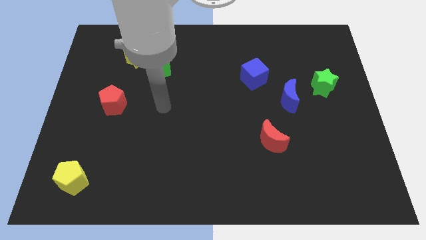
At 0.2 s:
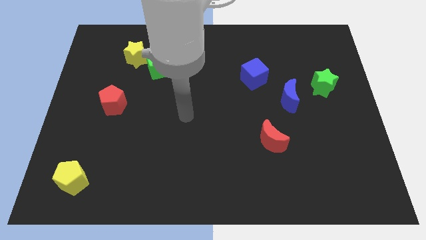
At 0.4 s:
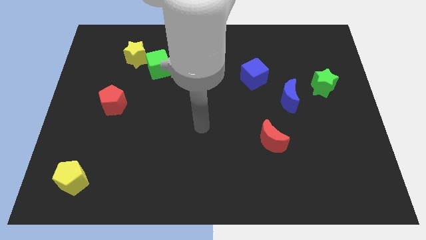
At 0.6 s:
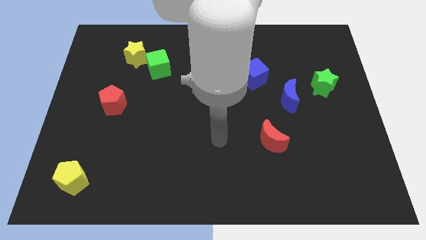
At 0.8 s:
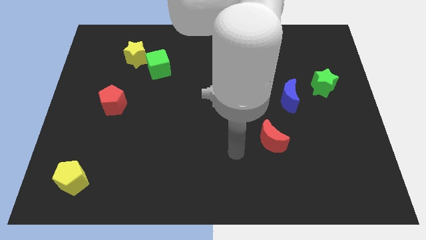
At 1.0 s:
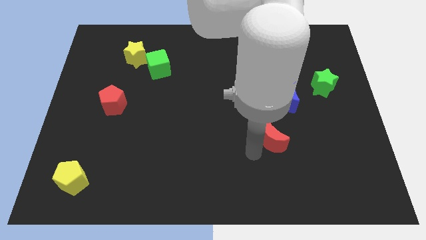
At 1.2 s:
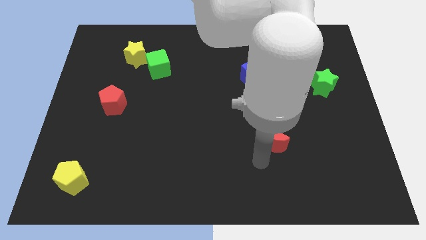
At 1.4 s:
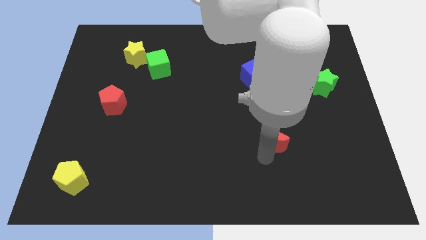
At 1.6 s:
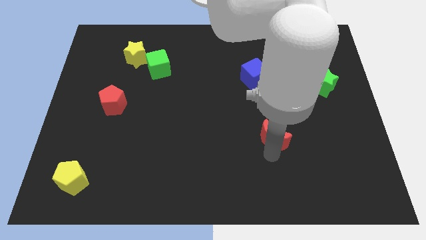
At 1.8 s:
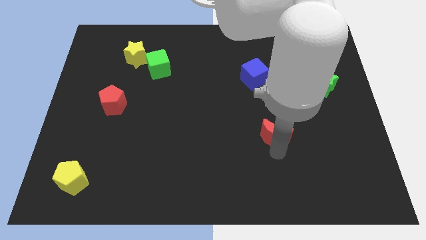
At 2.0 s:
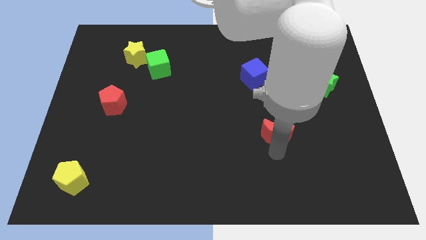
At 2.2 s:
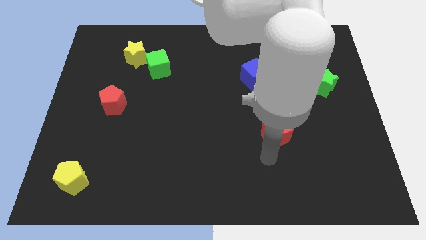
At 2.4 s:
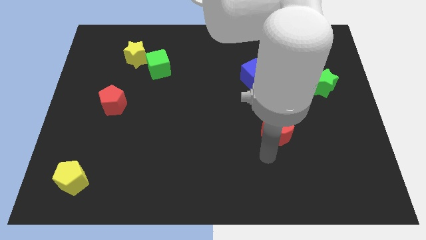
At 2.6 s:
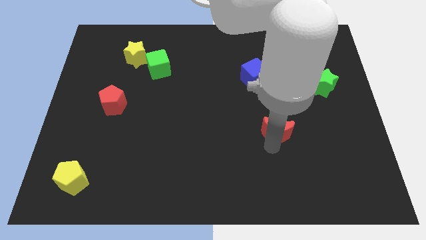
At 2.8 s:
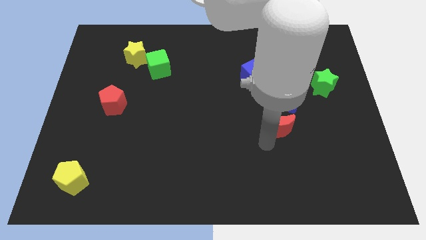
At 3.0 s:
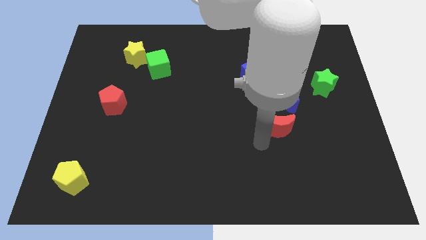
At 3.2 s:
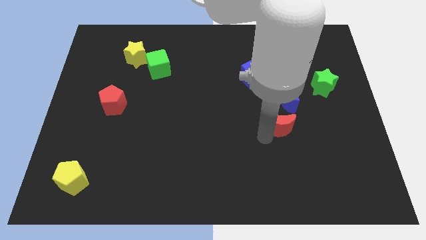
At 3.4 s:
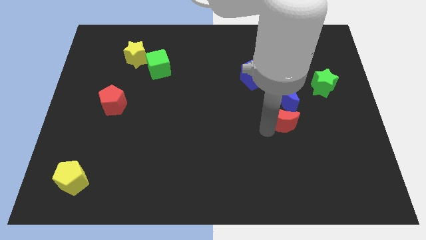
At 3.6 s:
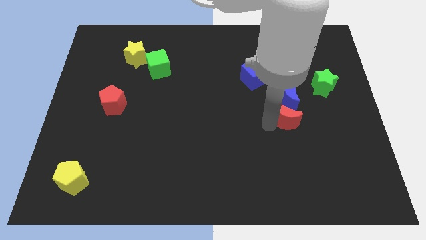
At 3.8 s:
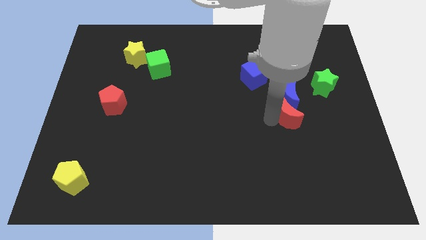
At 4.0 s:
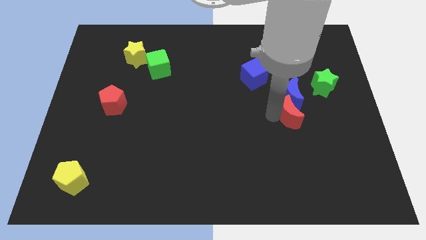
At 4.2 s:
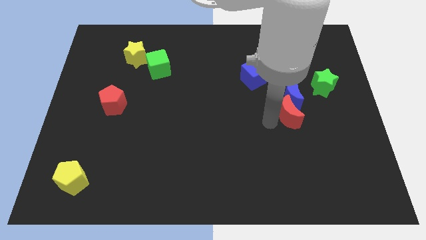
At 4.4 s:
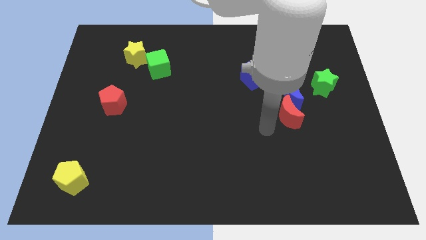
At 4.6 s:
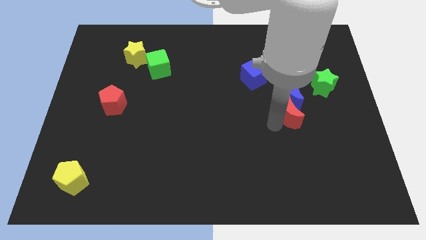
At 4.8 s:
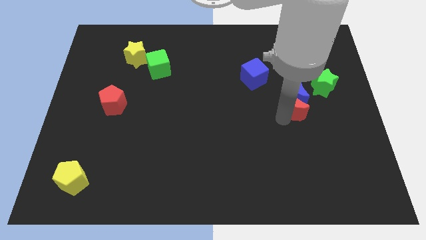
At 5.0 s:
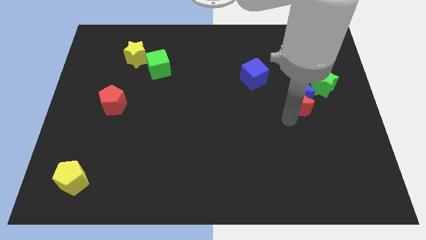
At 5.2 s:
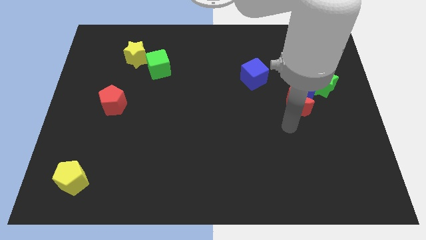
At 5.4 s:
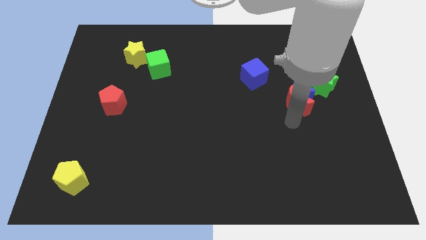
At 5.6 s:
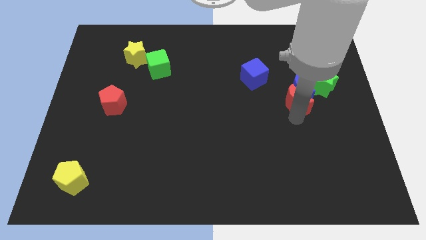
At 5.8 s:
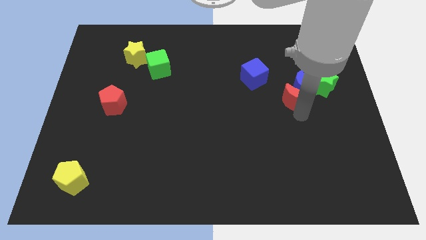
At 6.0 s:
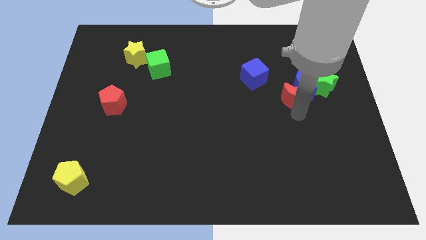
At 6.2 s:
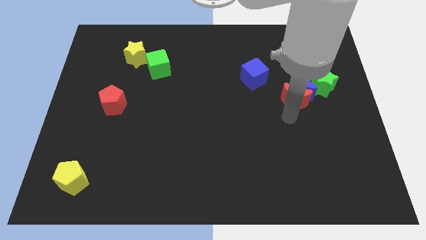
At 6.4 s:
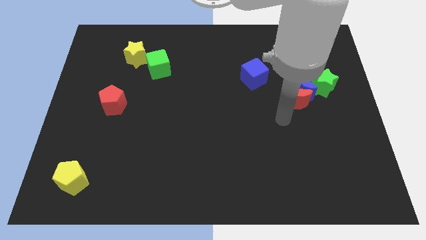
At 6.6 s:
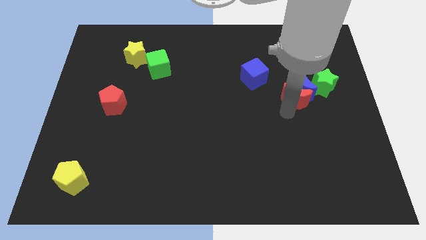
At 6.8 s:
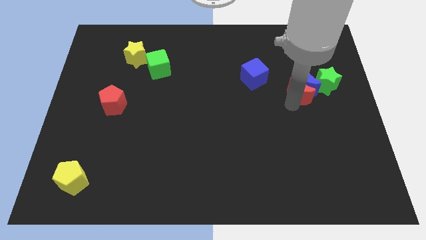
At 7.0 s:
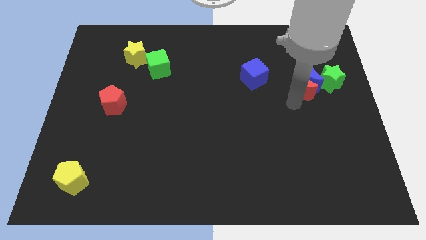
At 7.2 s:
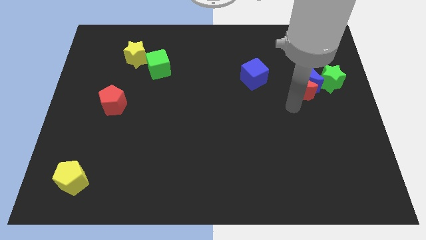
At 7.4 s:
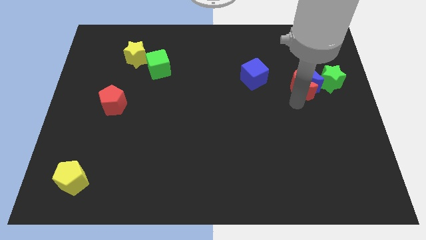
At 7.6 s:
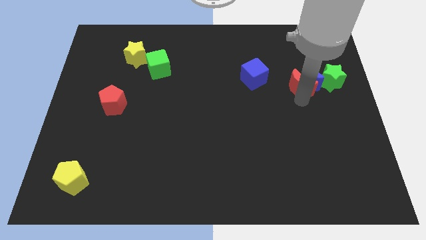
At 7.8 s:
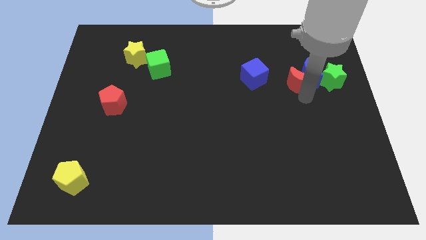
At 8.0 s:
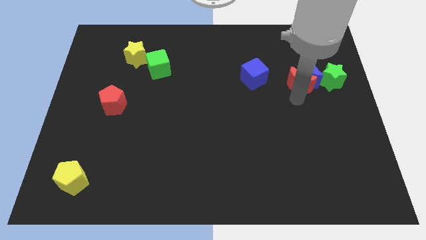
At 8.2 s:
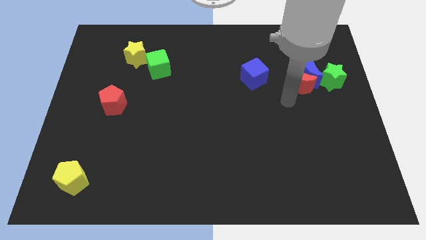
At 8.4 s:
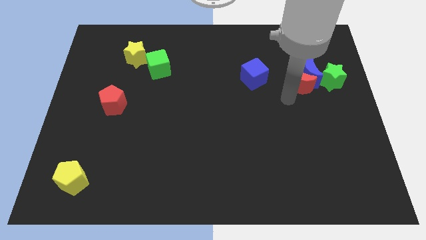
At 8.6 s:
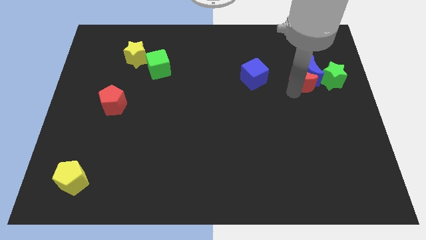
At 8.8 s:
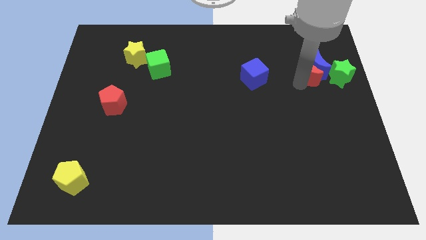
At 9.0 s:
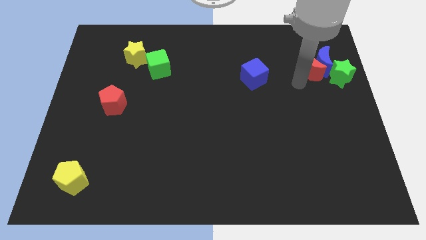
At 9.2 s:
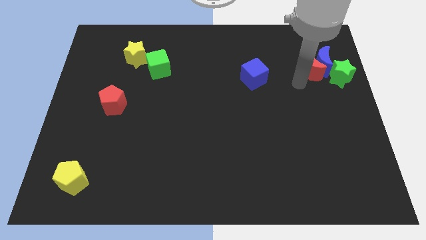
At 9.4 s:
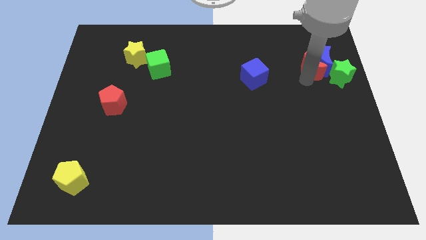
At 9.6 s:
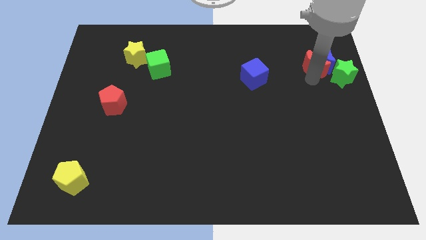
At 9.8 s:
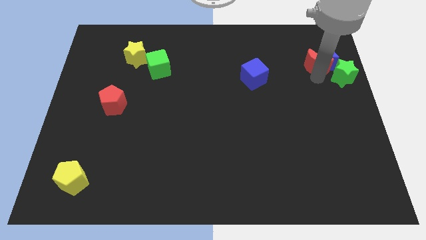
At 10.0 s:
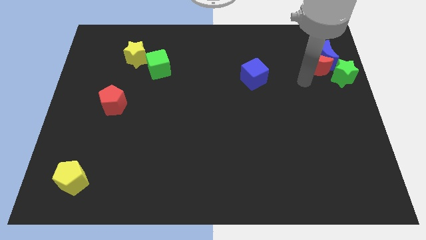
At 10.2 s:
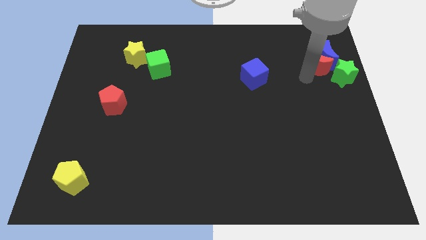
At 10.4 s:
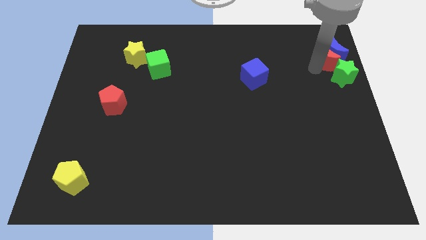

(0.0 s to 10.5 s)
put the red moon to the top side of the green star

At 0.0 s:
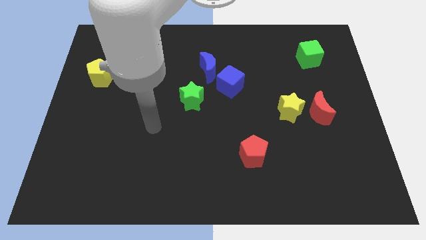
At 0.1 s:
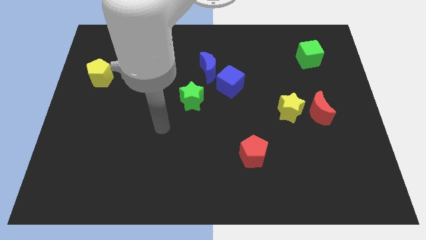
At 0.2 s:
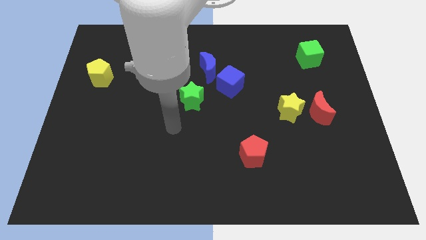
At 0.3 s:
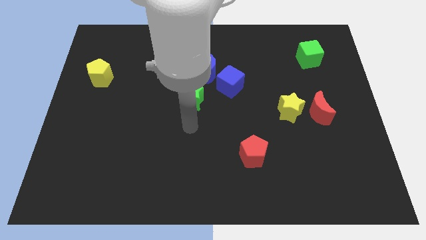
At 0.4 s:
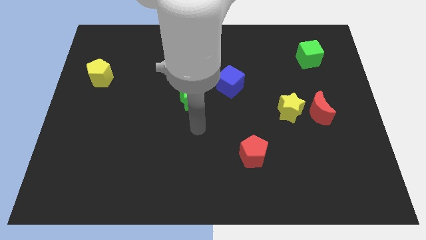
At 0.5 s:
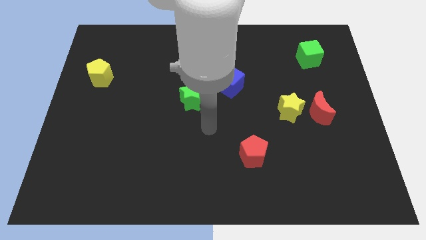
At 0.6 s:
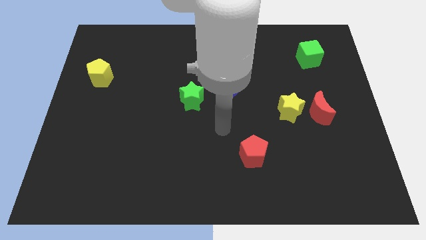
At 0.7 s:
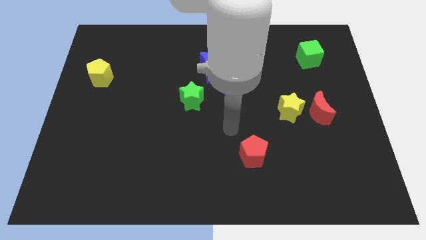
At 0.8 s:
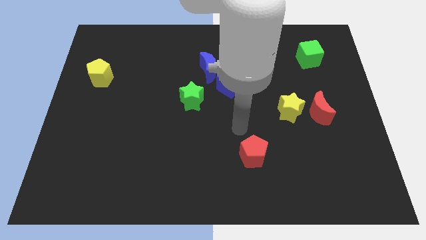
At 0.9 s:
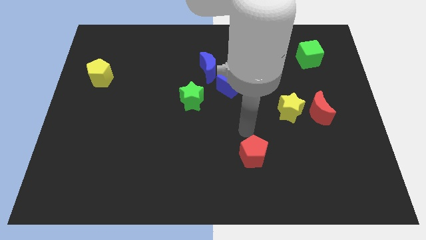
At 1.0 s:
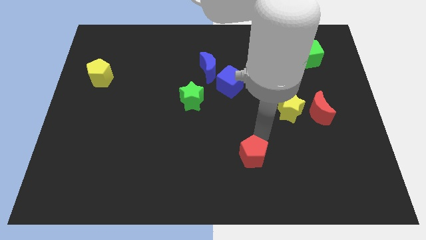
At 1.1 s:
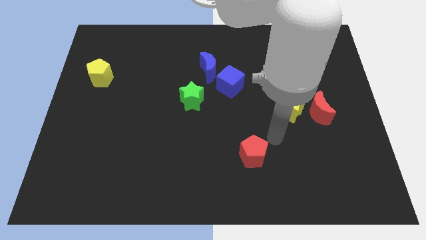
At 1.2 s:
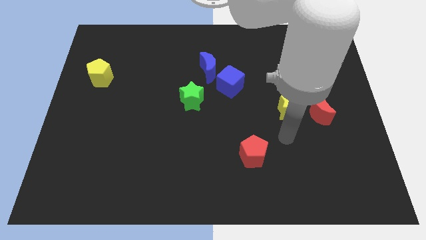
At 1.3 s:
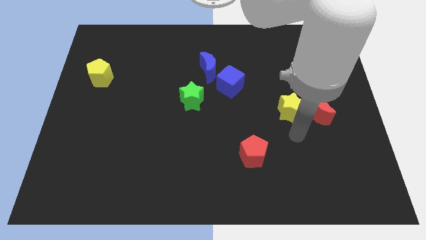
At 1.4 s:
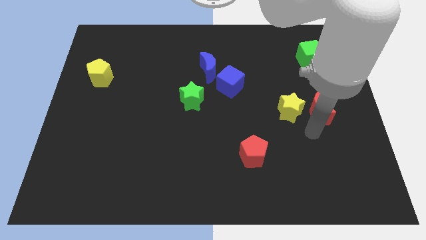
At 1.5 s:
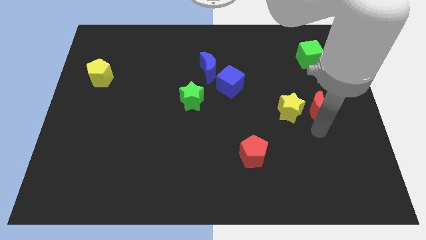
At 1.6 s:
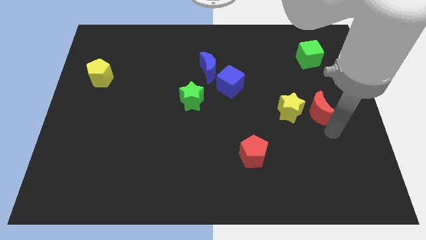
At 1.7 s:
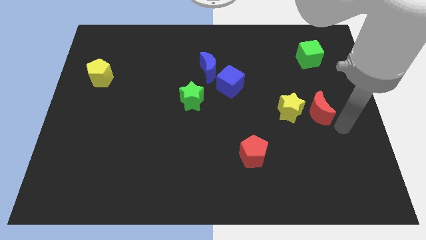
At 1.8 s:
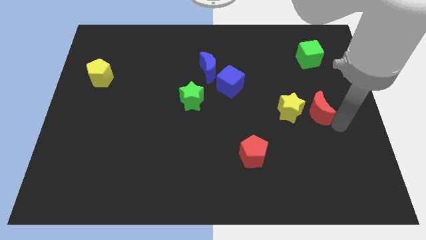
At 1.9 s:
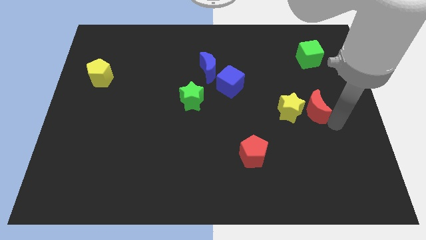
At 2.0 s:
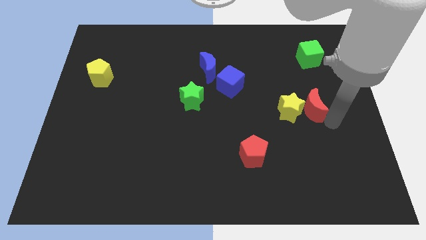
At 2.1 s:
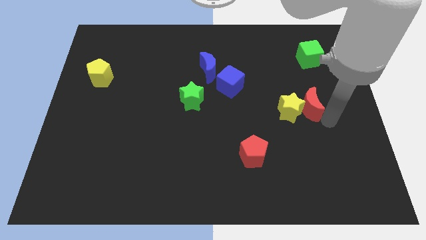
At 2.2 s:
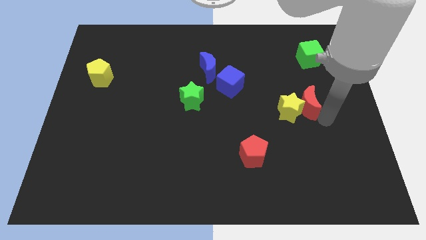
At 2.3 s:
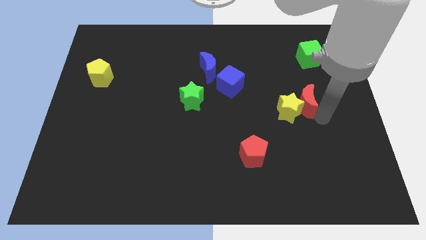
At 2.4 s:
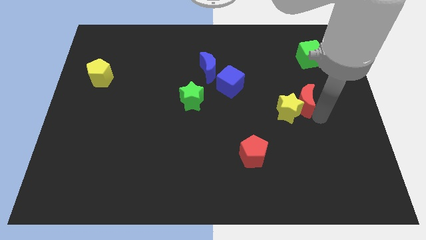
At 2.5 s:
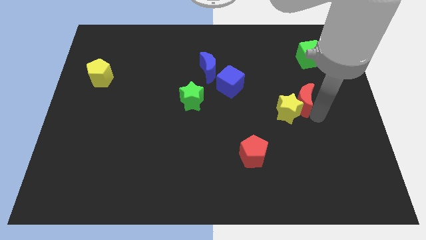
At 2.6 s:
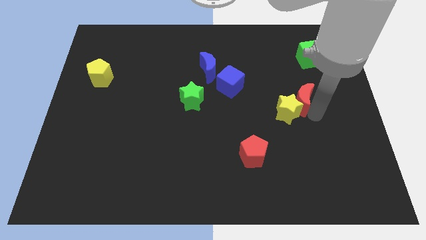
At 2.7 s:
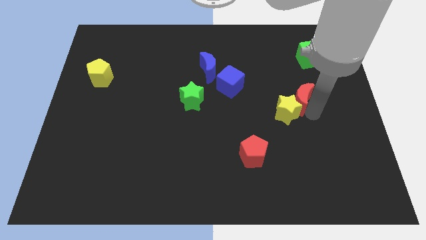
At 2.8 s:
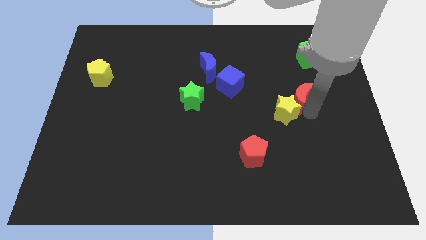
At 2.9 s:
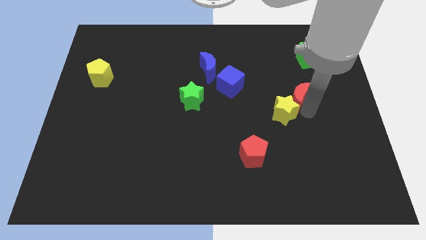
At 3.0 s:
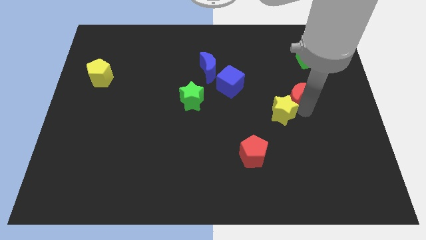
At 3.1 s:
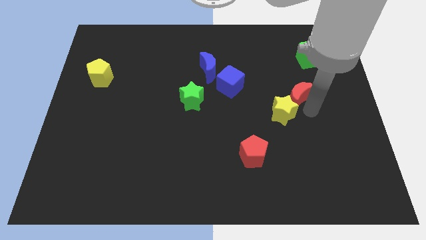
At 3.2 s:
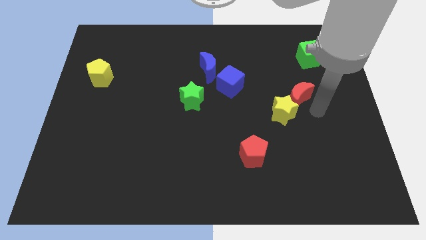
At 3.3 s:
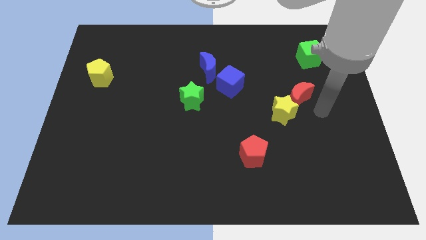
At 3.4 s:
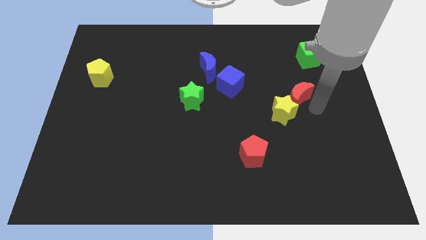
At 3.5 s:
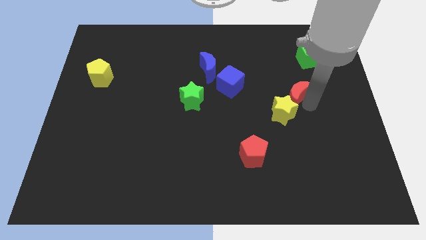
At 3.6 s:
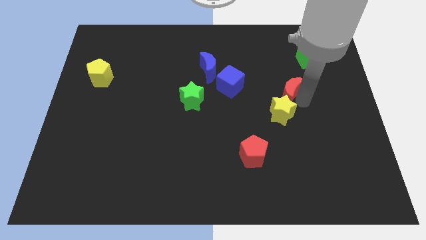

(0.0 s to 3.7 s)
push the red moon to the right side of the blue cube
